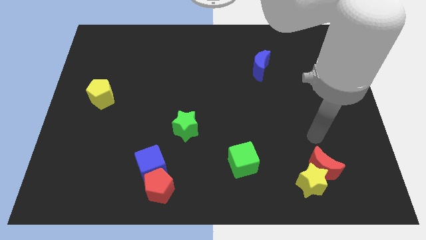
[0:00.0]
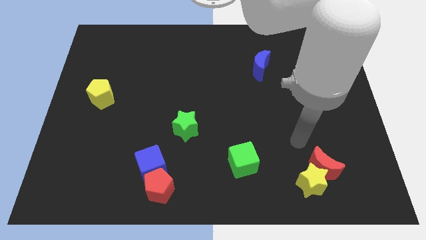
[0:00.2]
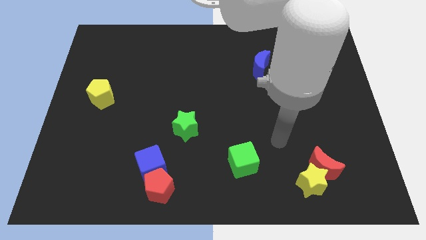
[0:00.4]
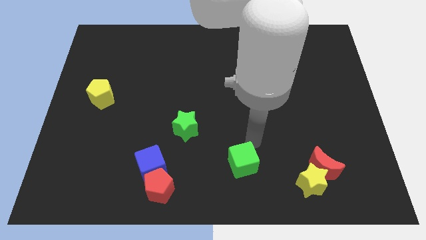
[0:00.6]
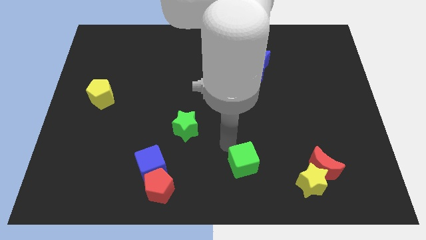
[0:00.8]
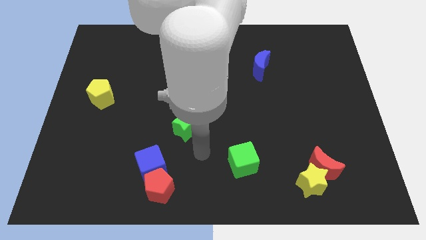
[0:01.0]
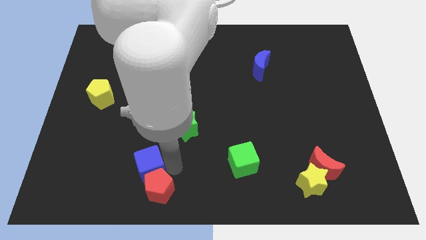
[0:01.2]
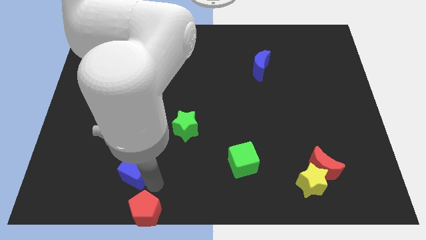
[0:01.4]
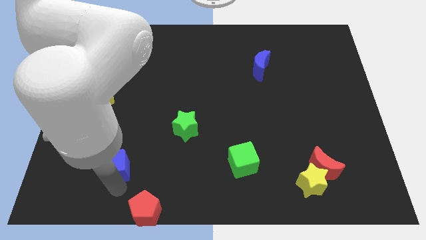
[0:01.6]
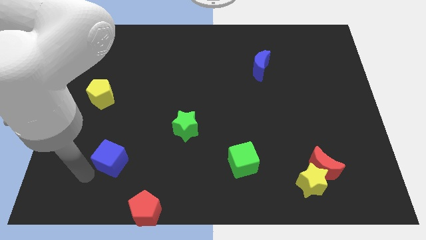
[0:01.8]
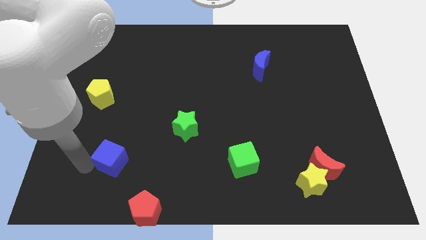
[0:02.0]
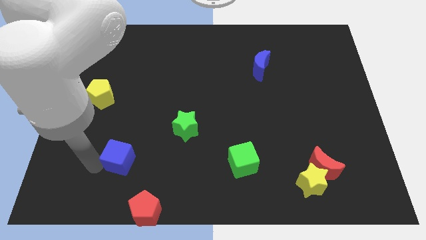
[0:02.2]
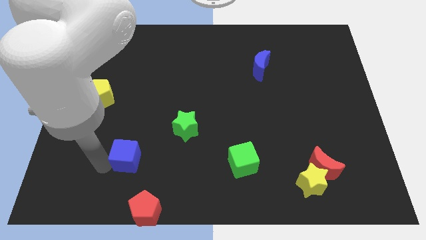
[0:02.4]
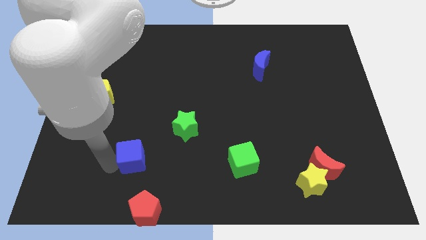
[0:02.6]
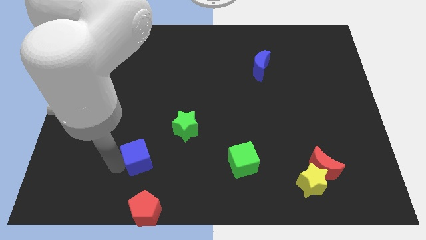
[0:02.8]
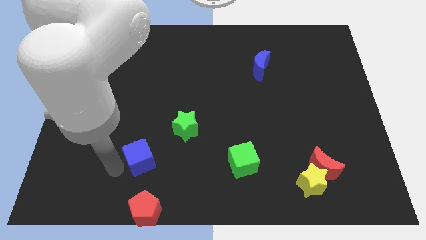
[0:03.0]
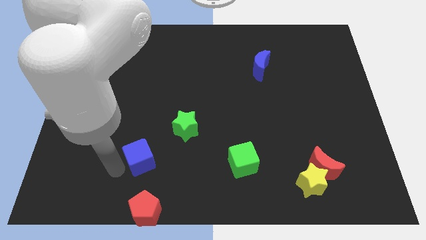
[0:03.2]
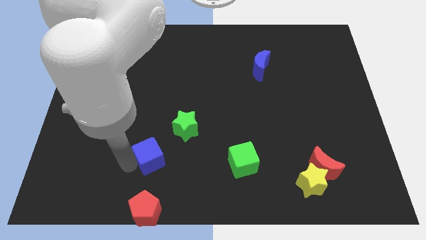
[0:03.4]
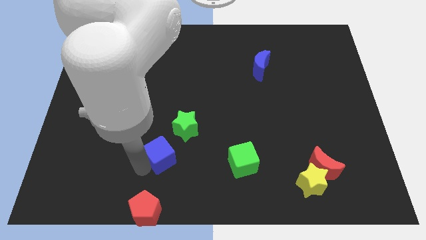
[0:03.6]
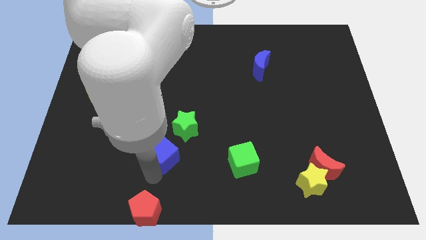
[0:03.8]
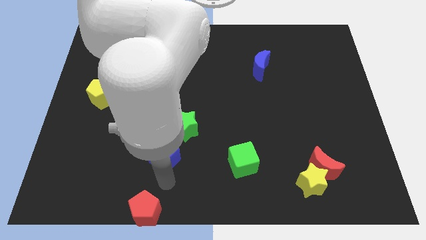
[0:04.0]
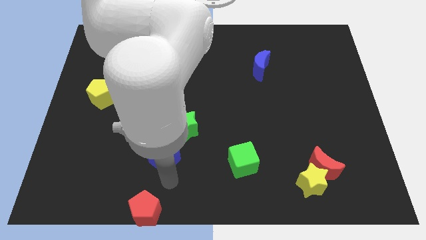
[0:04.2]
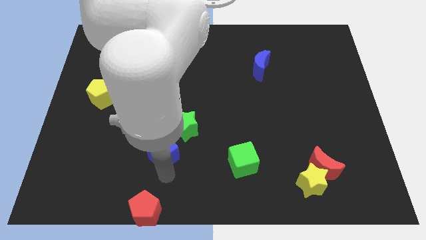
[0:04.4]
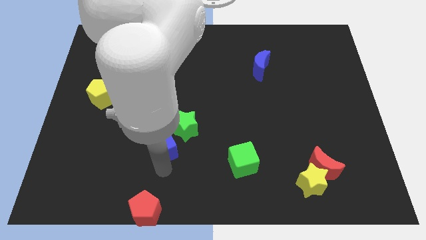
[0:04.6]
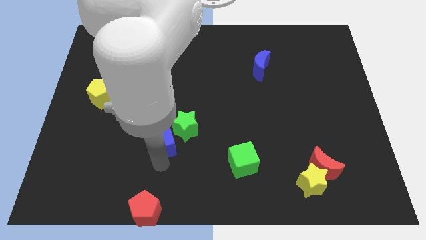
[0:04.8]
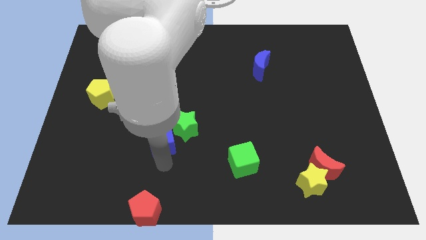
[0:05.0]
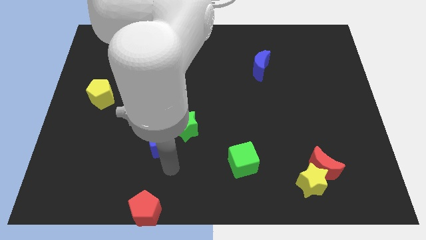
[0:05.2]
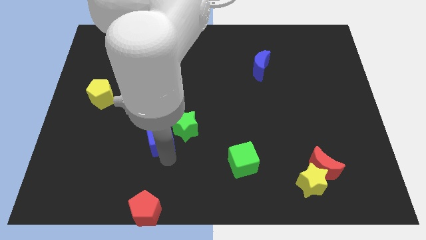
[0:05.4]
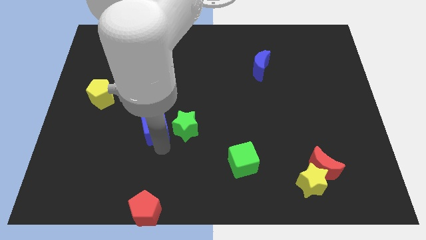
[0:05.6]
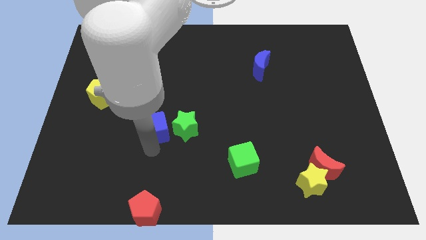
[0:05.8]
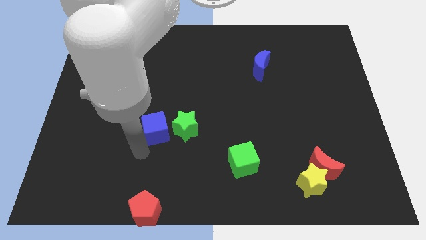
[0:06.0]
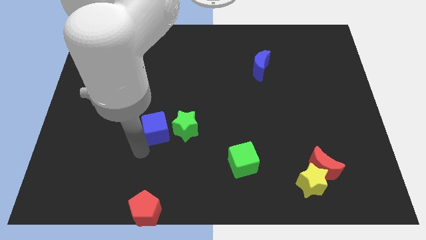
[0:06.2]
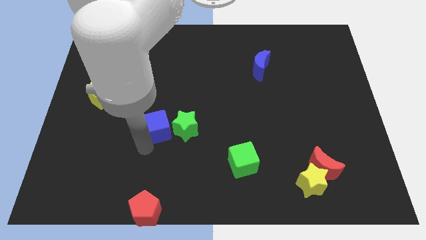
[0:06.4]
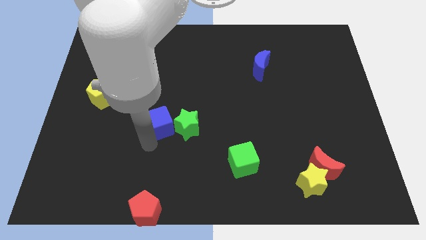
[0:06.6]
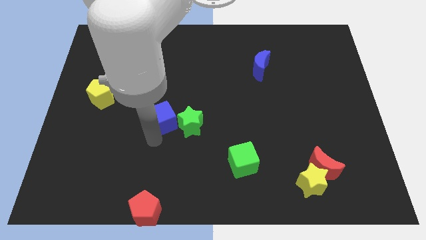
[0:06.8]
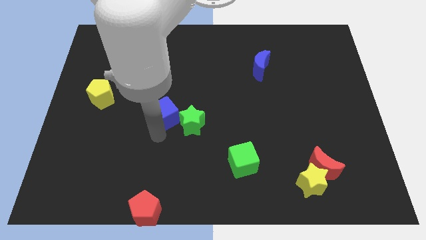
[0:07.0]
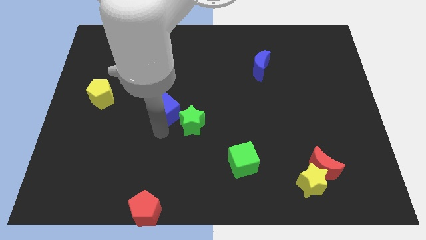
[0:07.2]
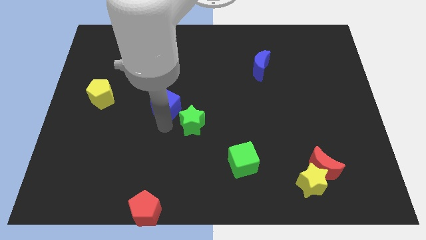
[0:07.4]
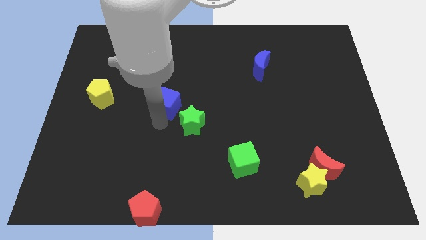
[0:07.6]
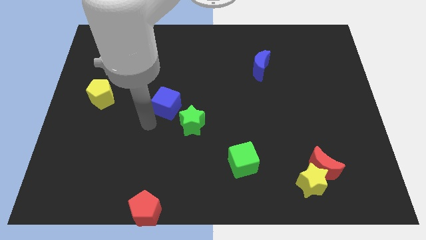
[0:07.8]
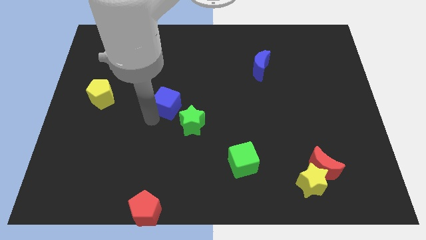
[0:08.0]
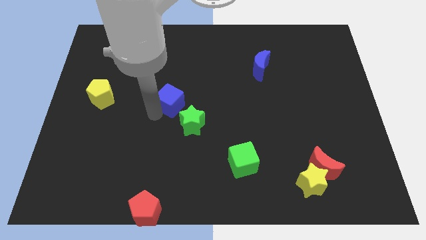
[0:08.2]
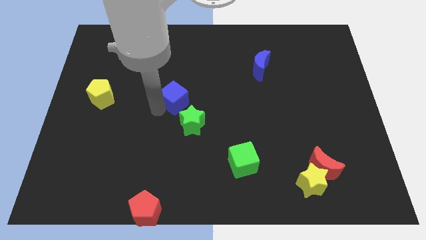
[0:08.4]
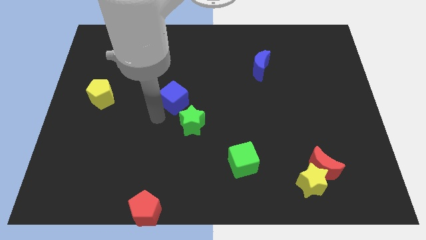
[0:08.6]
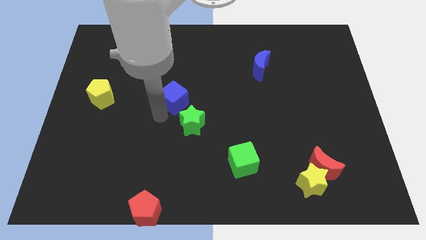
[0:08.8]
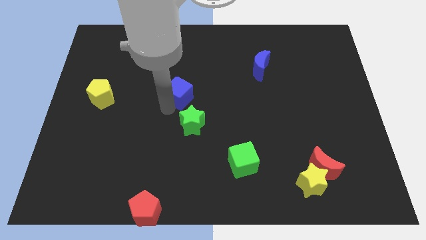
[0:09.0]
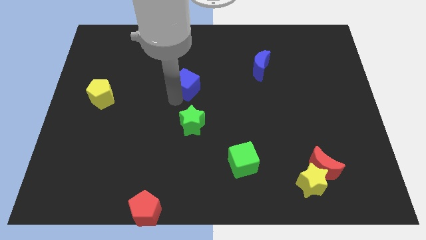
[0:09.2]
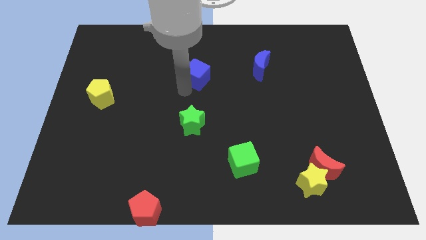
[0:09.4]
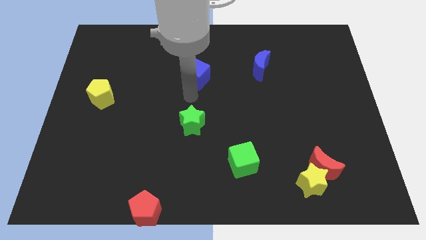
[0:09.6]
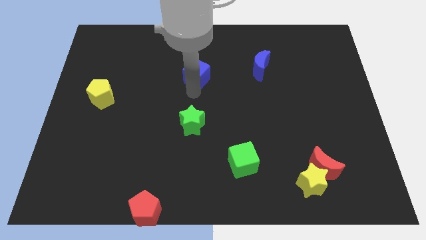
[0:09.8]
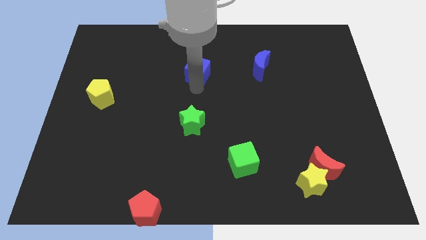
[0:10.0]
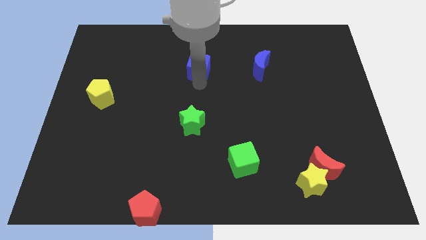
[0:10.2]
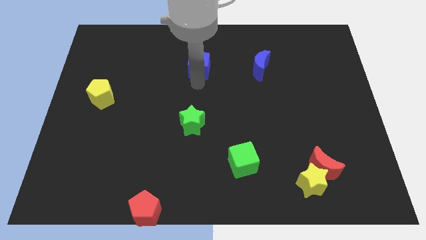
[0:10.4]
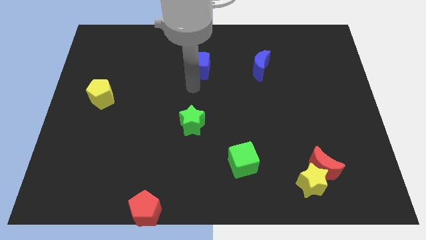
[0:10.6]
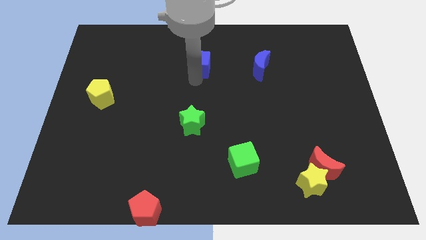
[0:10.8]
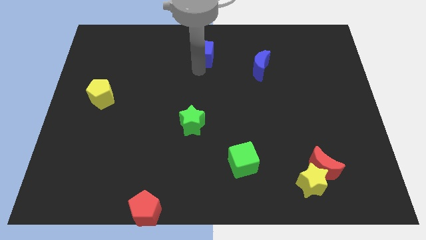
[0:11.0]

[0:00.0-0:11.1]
push the blue cube to the towards your base

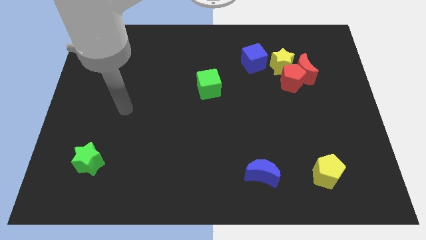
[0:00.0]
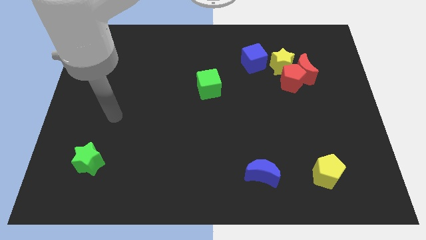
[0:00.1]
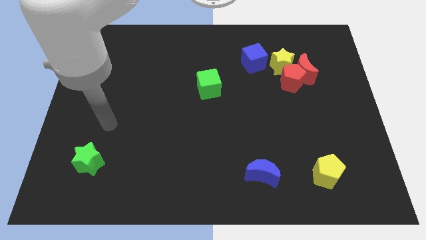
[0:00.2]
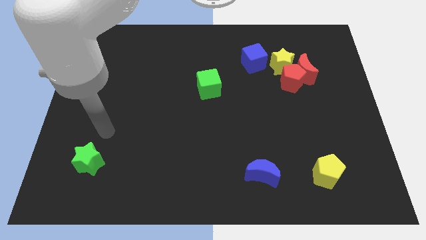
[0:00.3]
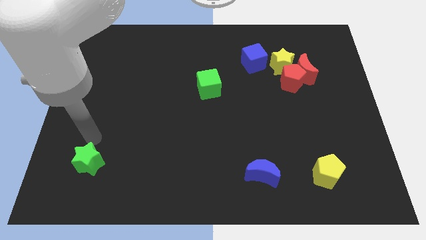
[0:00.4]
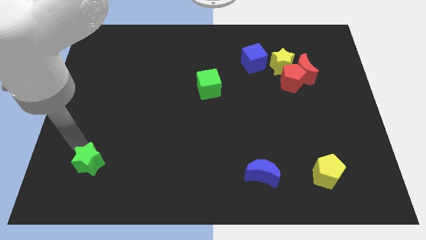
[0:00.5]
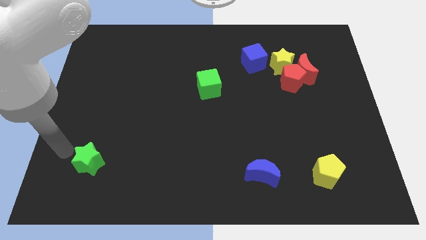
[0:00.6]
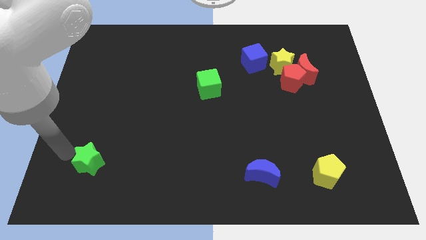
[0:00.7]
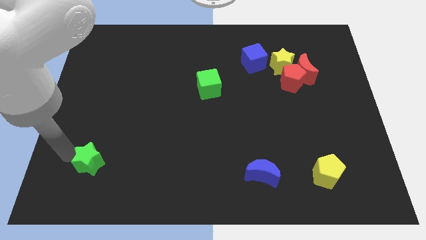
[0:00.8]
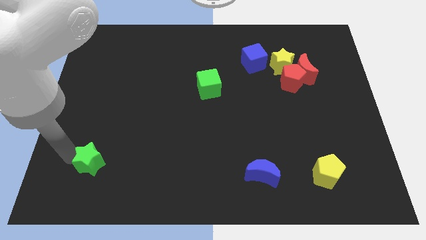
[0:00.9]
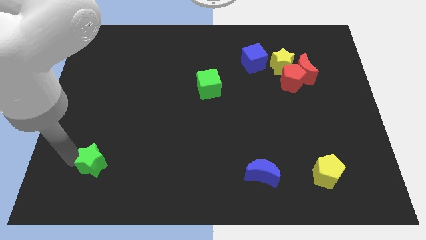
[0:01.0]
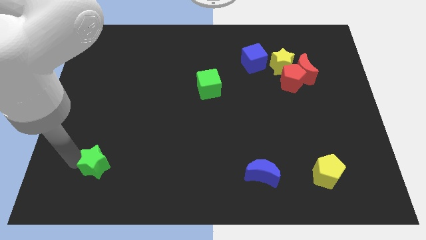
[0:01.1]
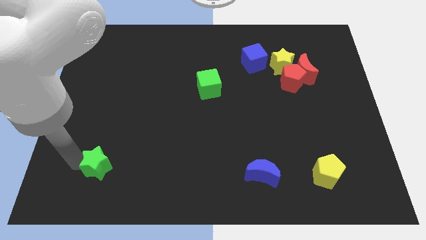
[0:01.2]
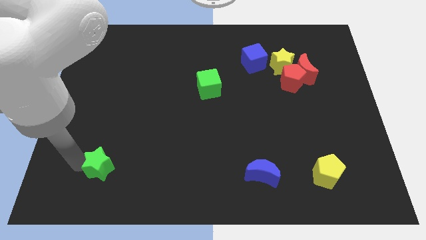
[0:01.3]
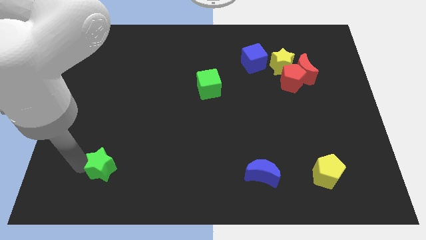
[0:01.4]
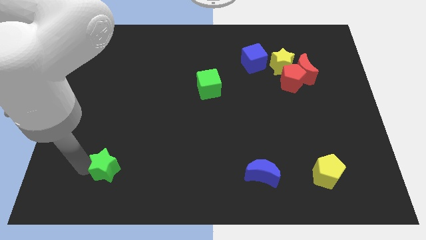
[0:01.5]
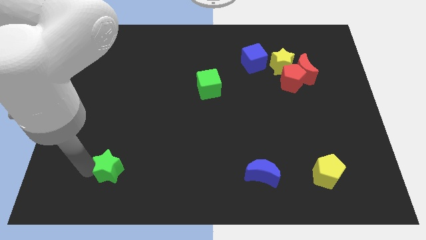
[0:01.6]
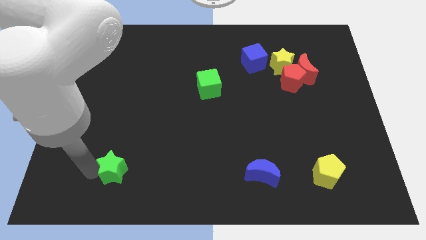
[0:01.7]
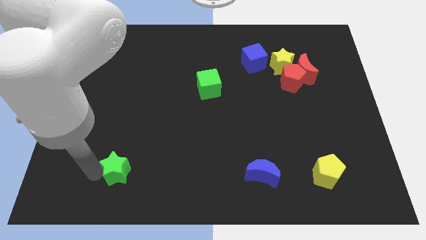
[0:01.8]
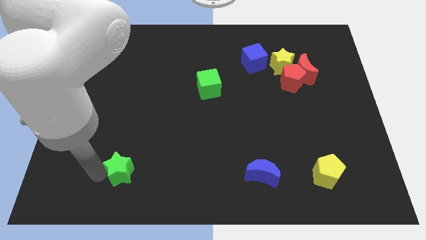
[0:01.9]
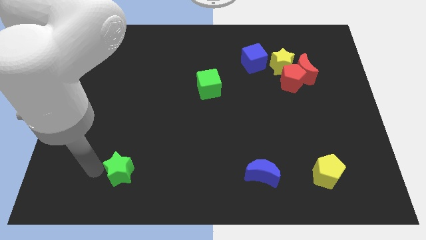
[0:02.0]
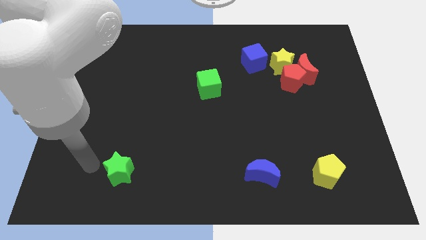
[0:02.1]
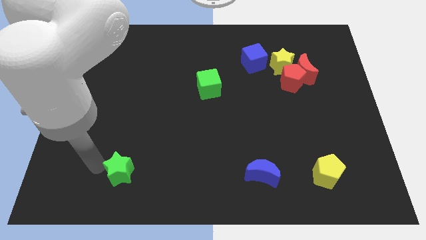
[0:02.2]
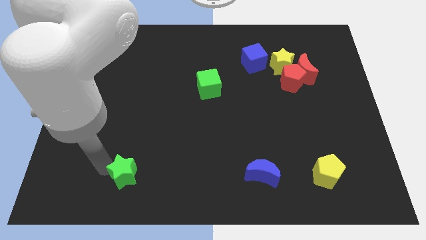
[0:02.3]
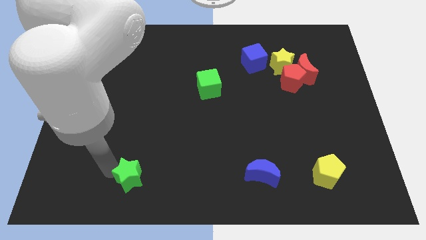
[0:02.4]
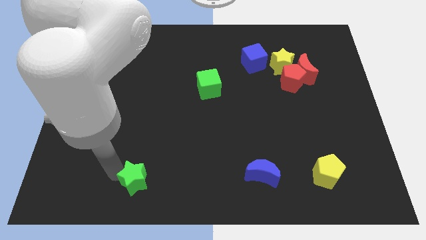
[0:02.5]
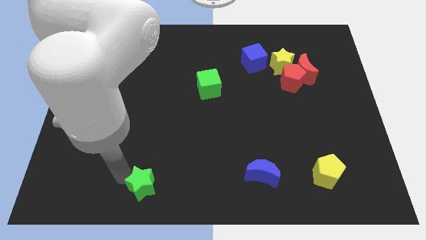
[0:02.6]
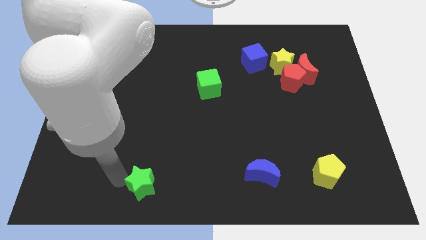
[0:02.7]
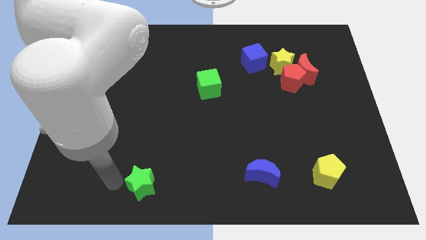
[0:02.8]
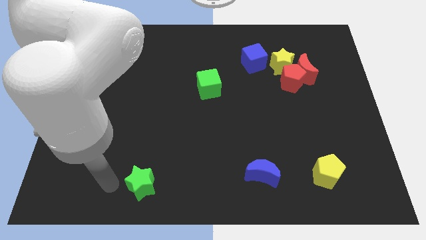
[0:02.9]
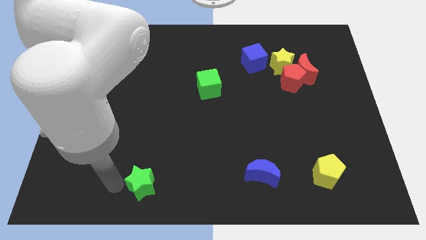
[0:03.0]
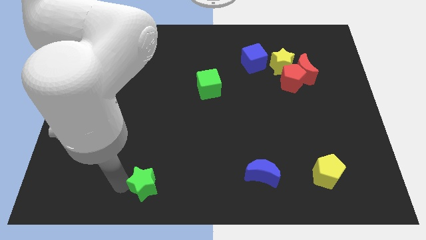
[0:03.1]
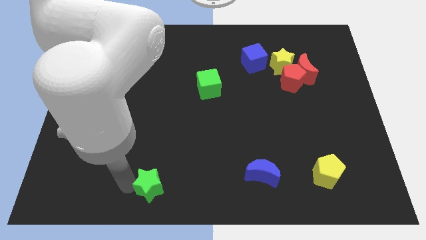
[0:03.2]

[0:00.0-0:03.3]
slide the green star to the bottom
